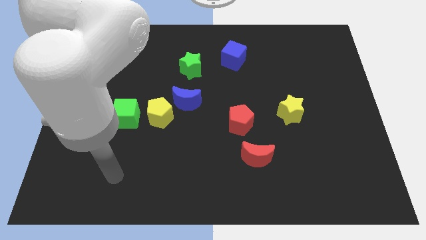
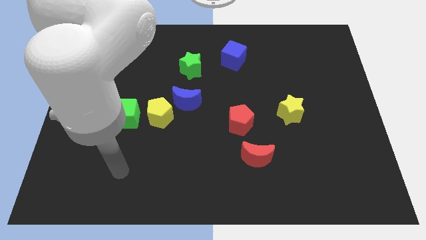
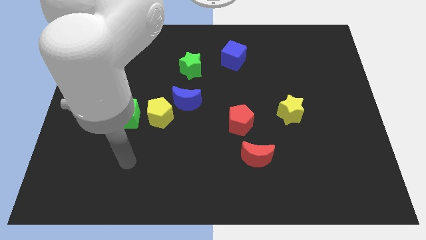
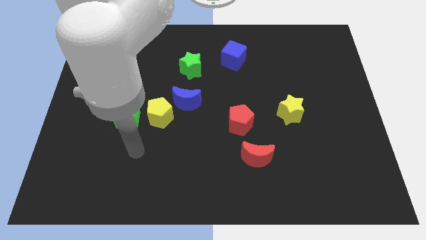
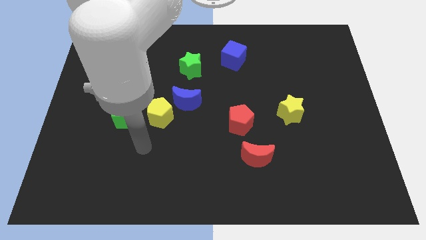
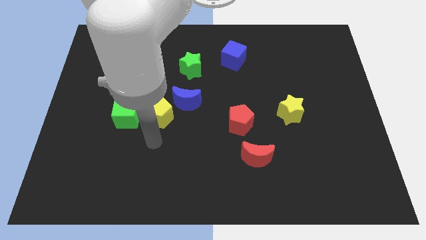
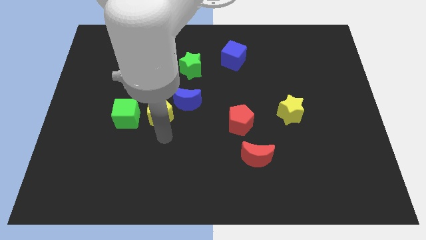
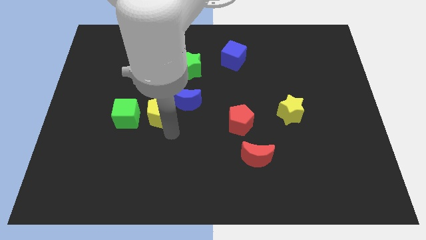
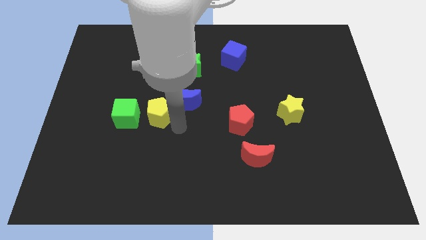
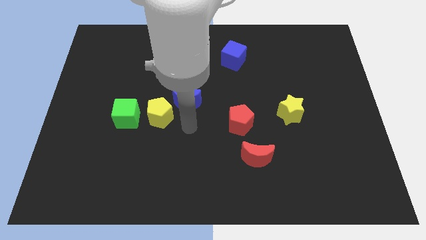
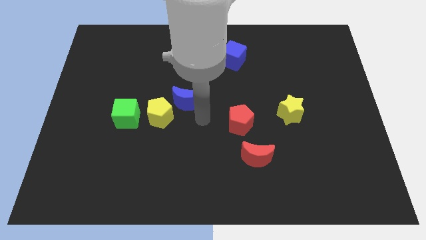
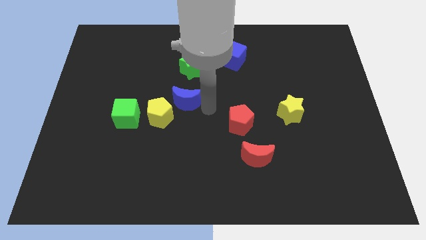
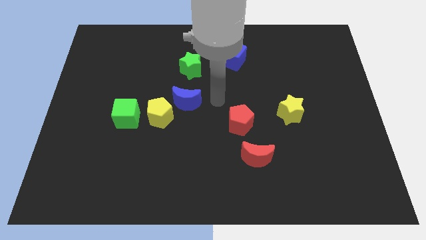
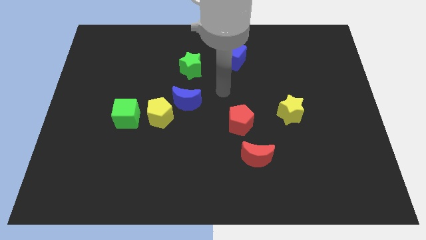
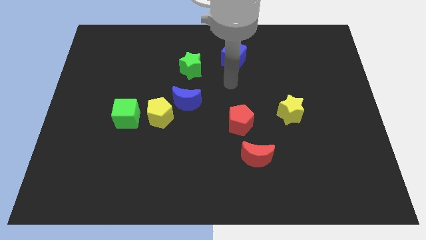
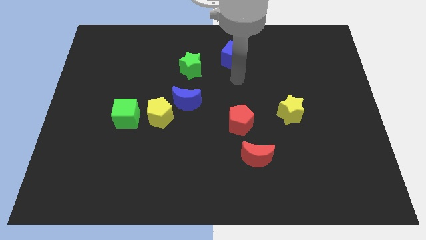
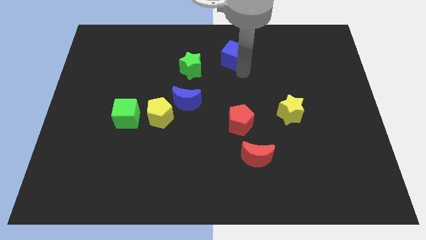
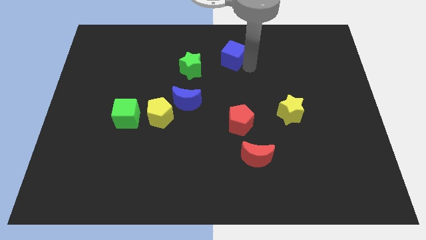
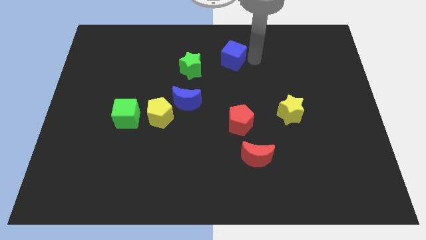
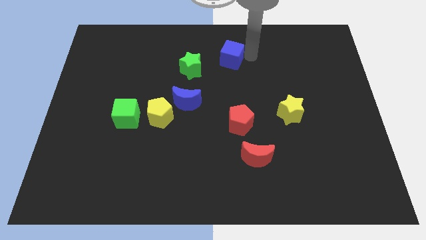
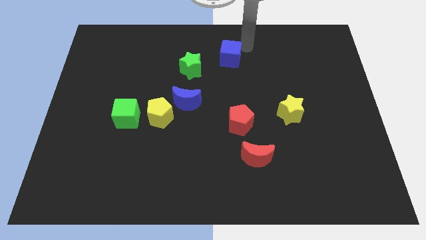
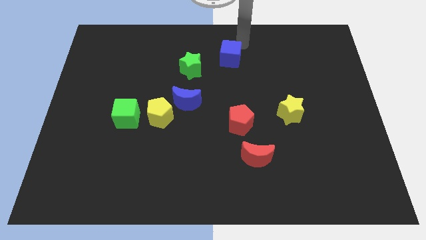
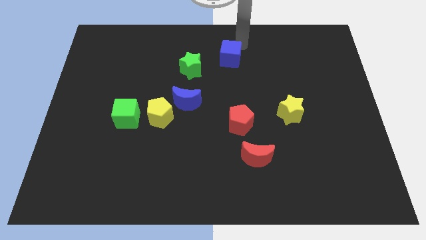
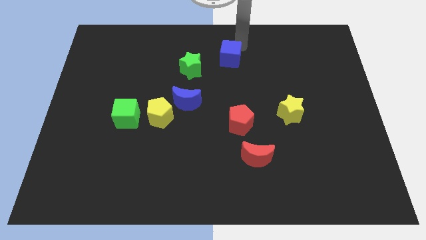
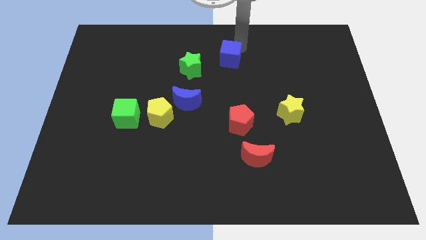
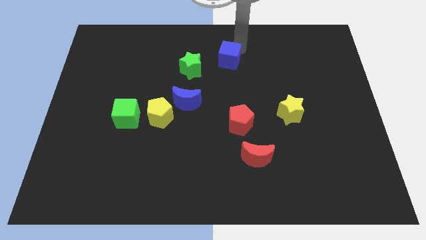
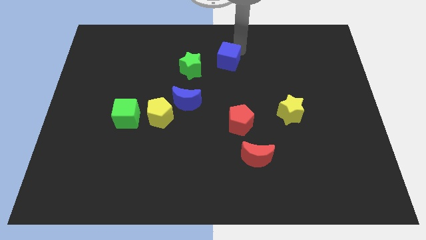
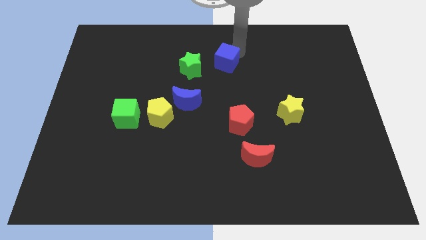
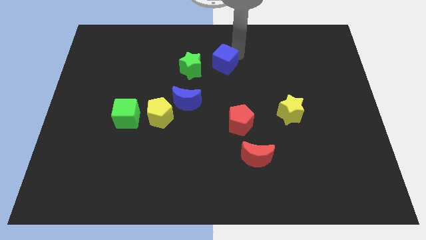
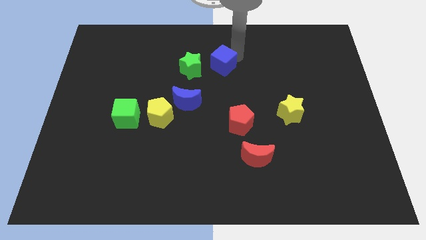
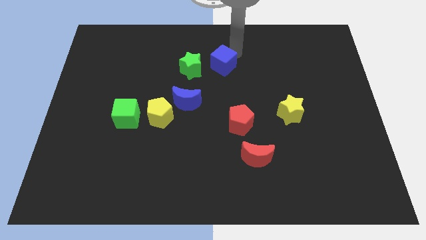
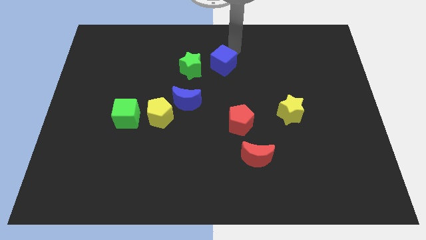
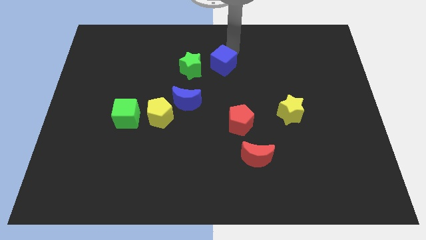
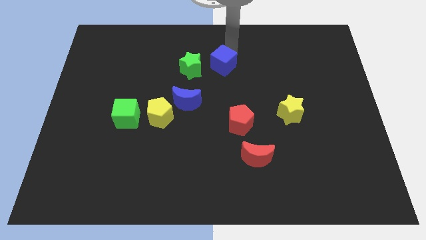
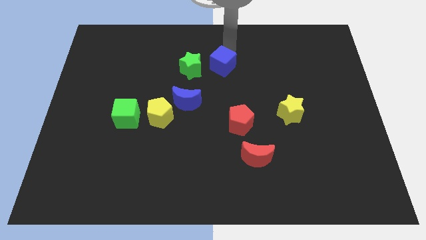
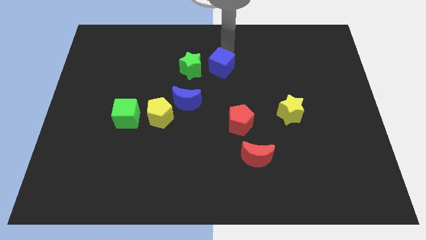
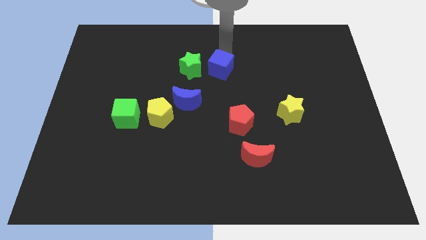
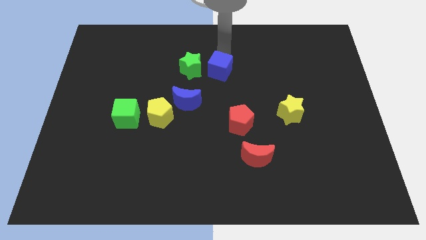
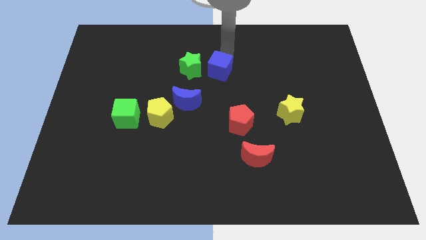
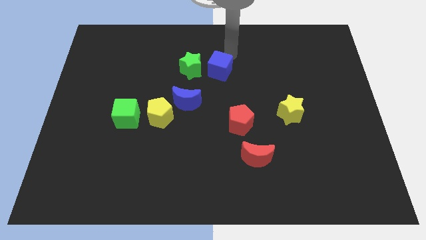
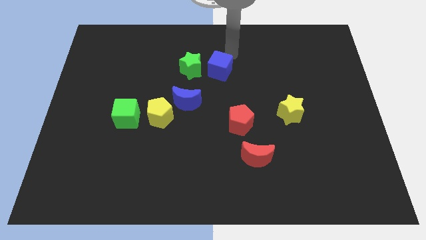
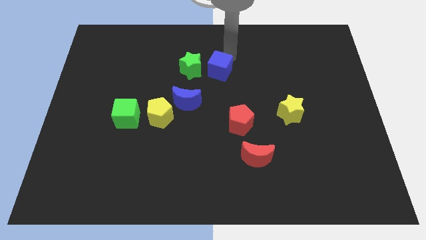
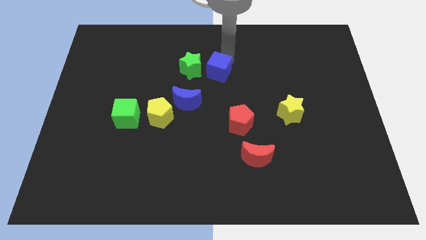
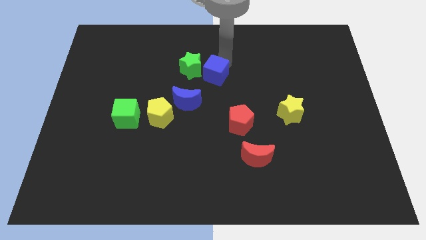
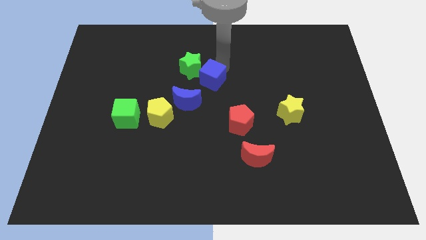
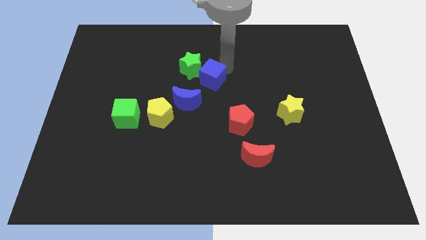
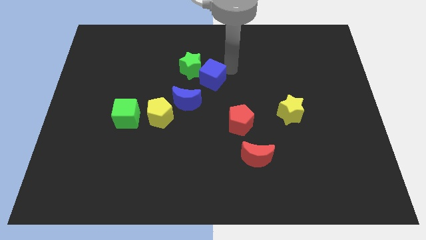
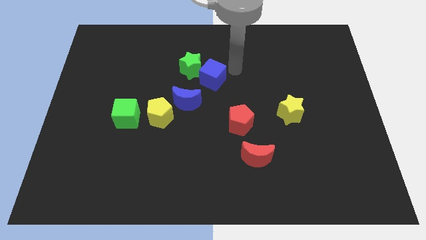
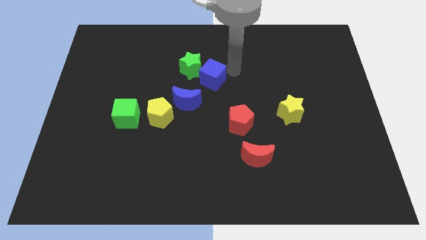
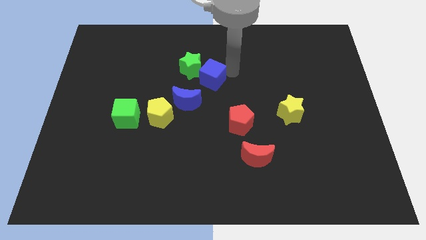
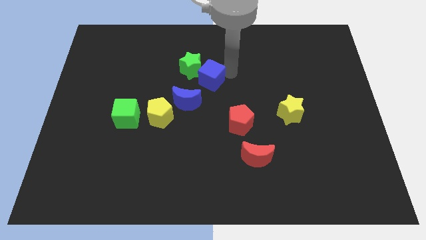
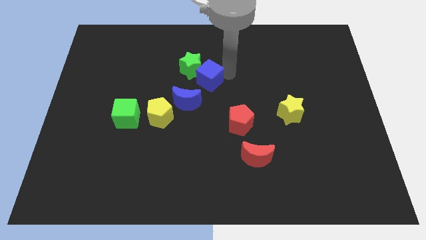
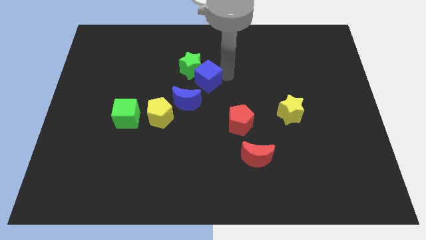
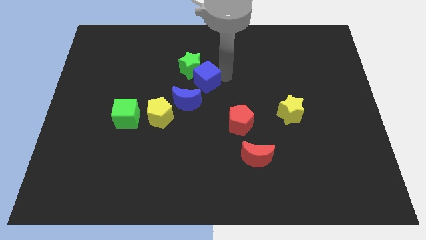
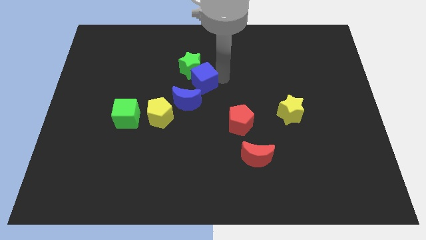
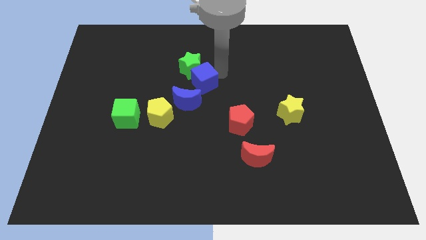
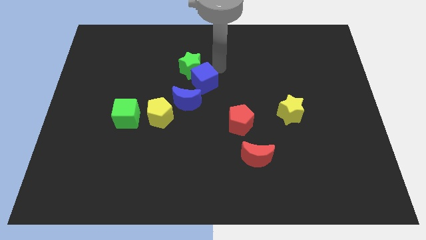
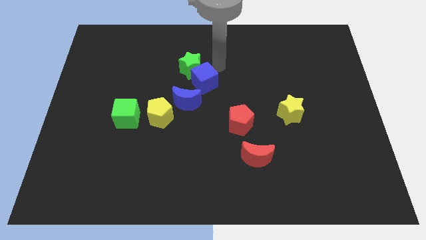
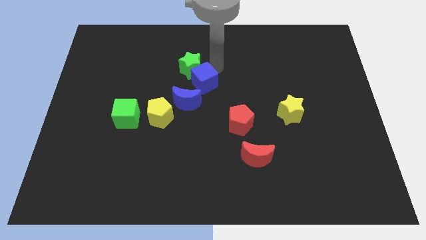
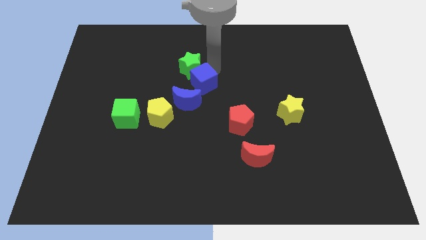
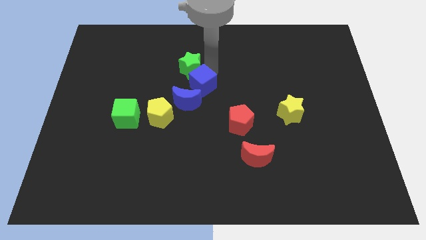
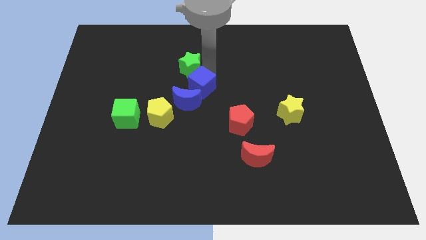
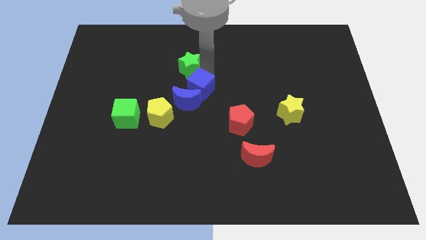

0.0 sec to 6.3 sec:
move the blue cube towards the blue moon

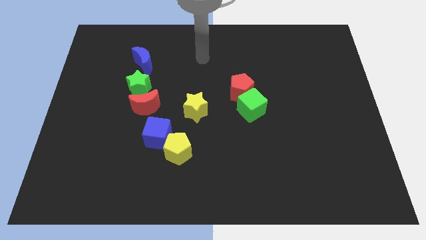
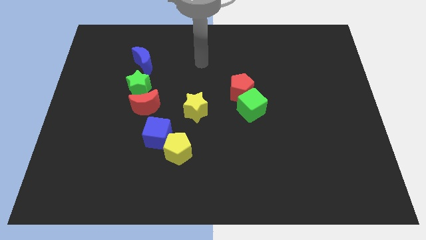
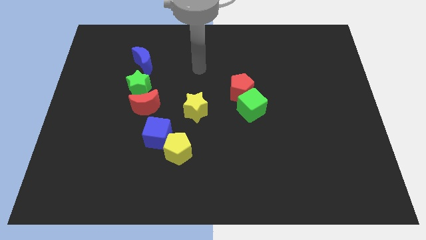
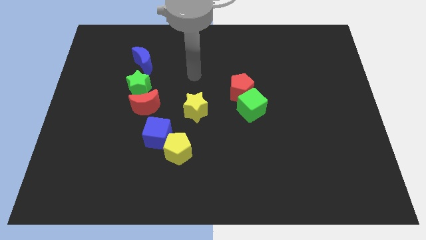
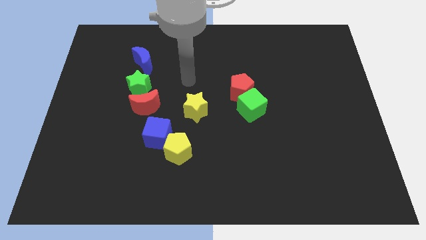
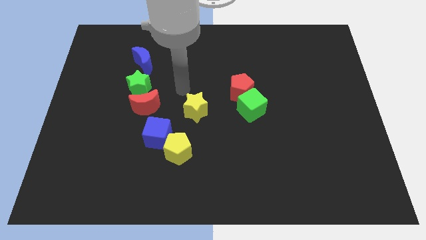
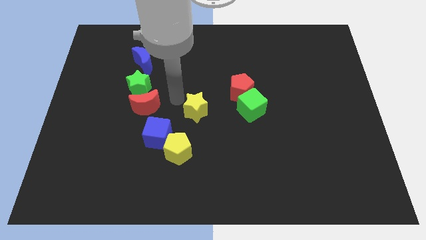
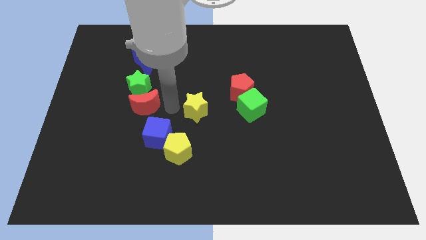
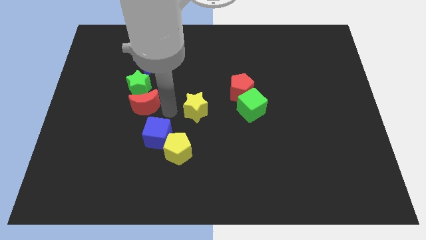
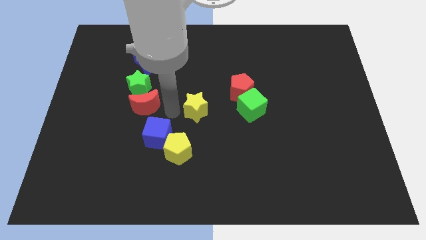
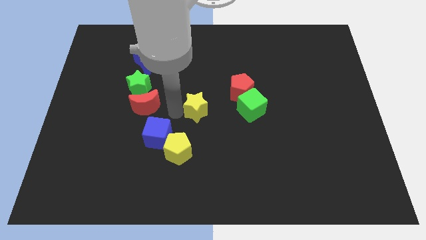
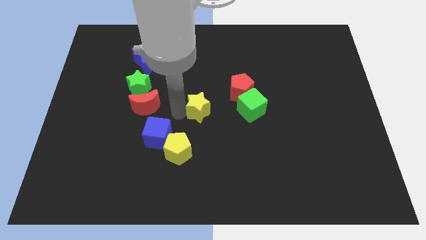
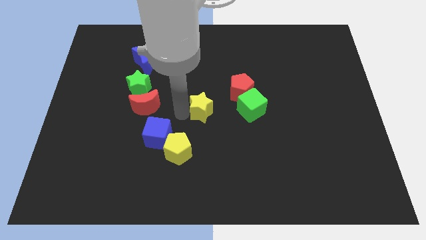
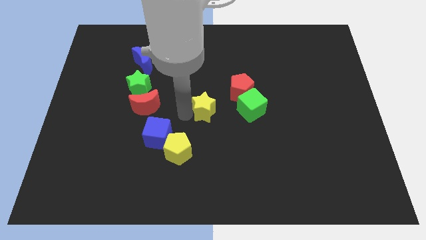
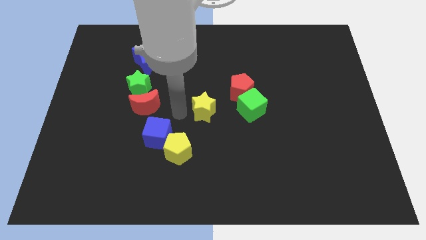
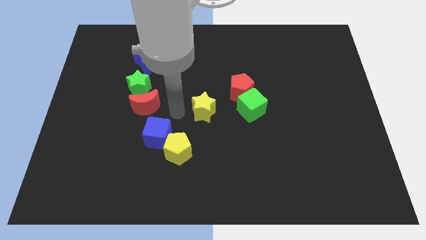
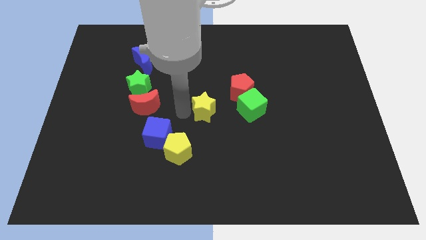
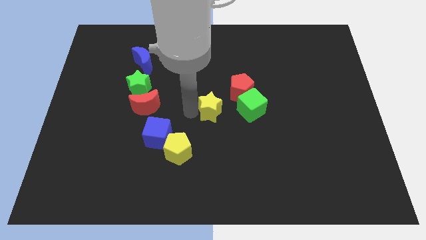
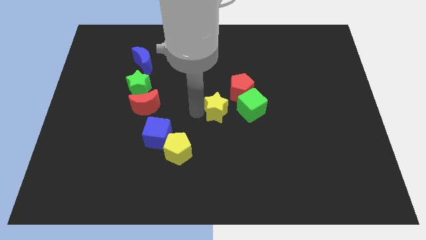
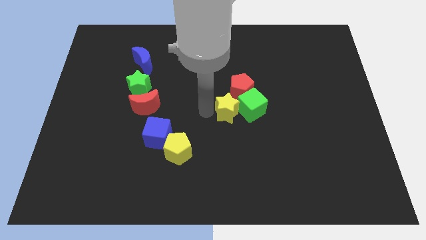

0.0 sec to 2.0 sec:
push the yellow star to the green cube
